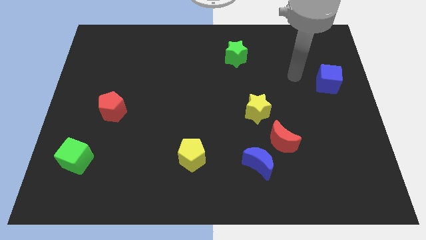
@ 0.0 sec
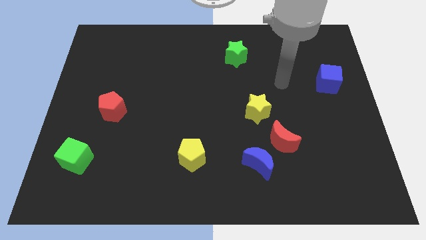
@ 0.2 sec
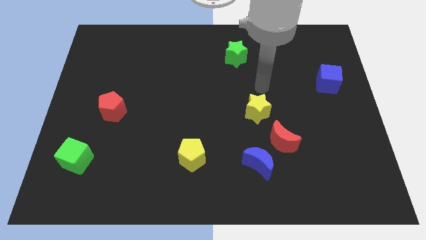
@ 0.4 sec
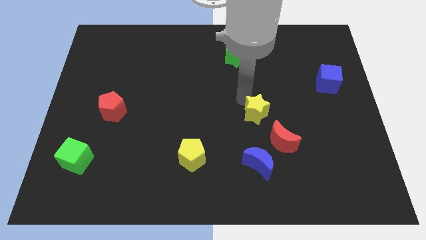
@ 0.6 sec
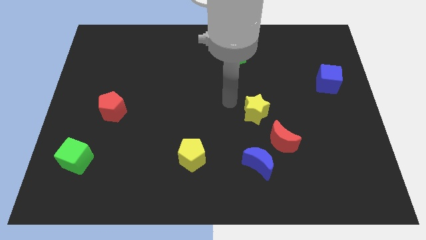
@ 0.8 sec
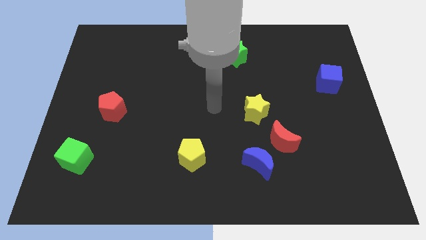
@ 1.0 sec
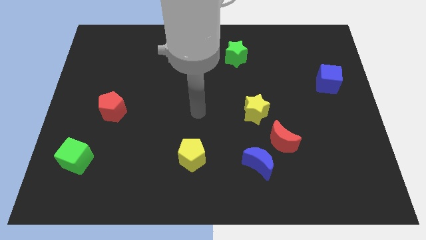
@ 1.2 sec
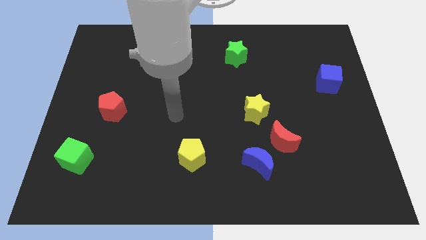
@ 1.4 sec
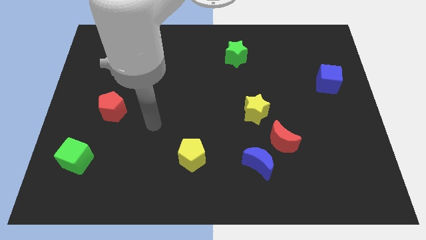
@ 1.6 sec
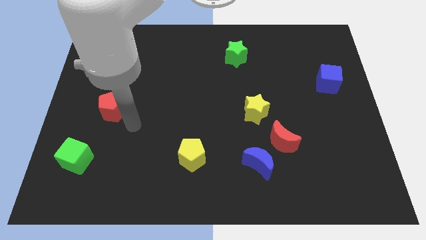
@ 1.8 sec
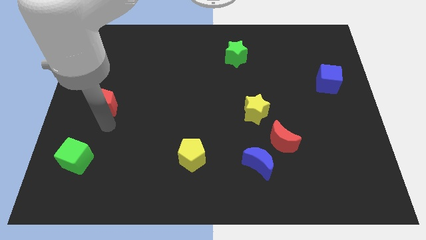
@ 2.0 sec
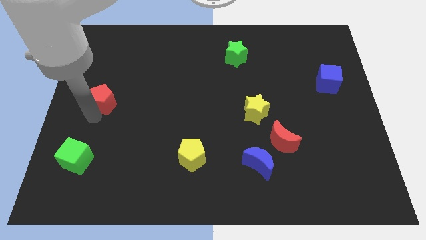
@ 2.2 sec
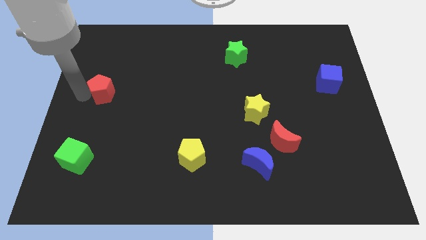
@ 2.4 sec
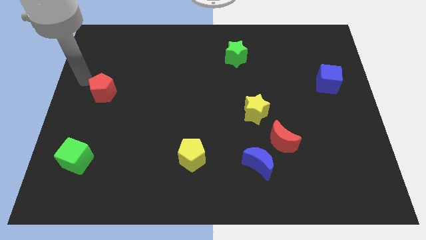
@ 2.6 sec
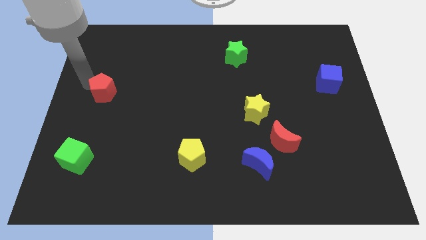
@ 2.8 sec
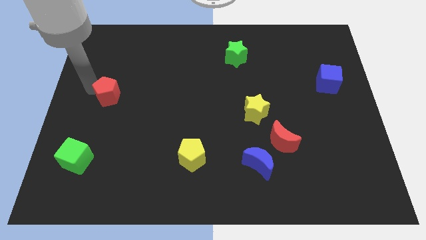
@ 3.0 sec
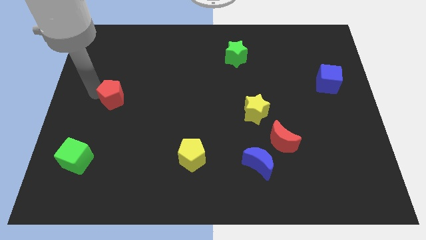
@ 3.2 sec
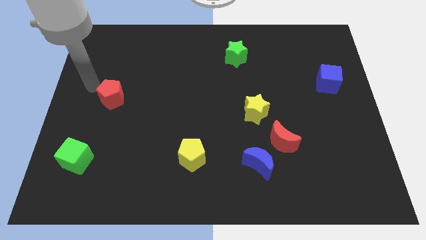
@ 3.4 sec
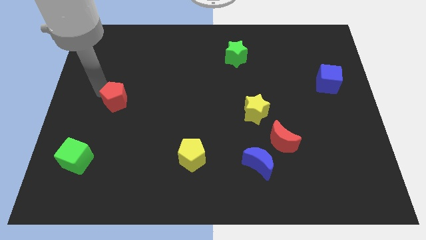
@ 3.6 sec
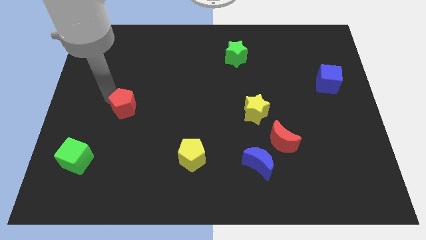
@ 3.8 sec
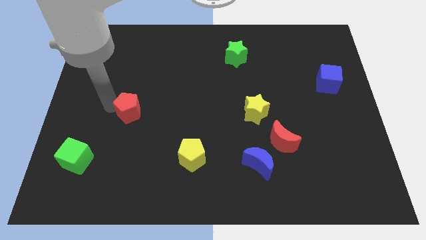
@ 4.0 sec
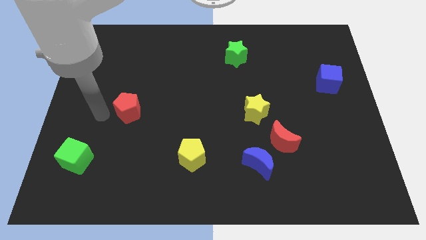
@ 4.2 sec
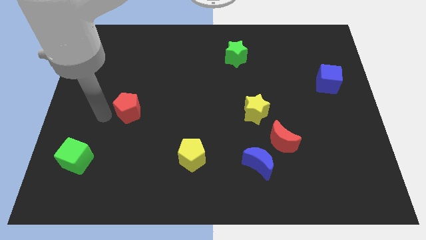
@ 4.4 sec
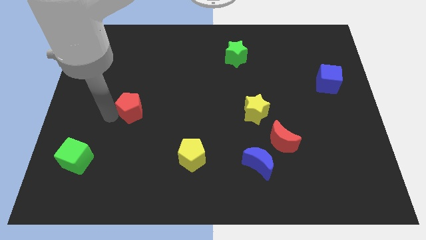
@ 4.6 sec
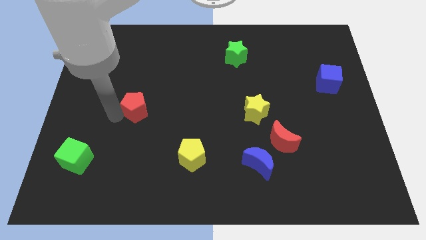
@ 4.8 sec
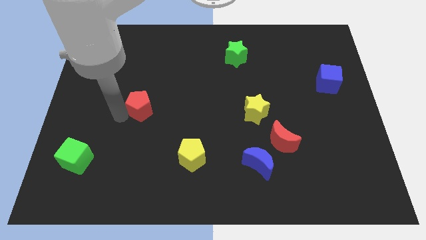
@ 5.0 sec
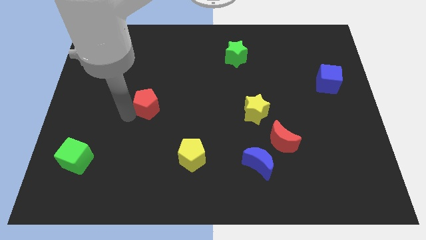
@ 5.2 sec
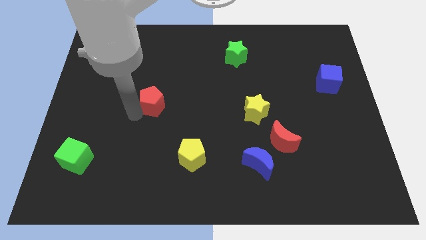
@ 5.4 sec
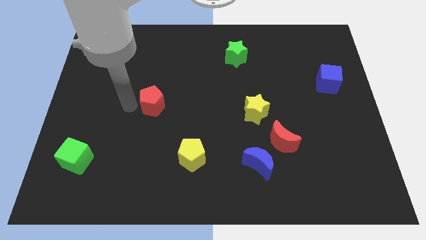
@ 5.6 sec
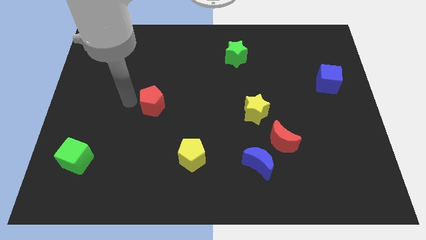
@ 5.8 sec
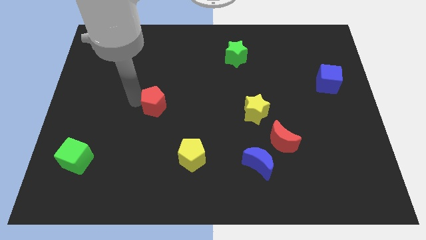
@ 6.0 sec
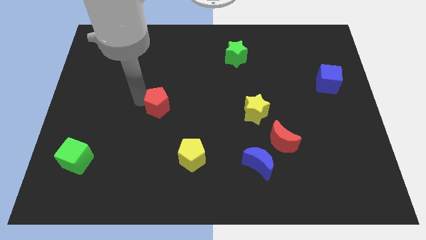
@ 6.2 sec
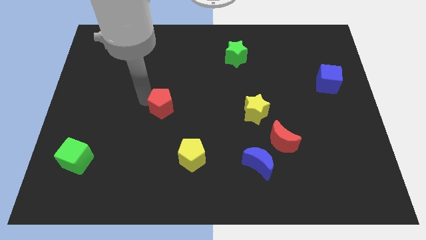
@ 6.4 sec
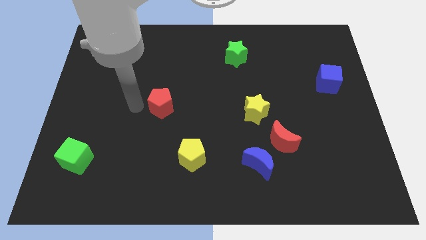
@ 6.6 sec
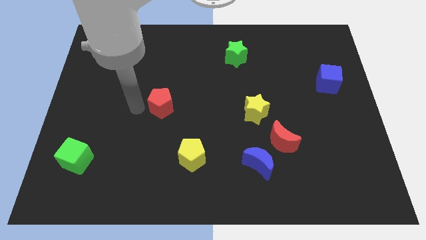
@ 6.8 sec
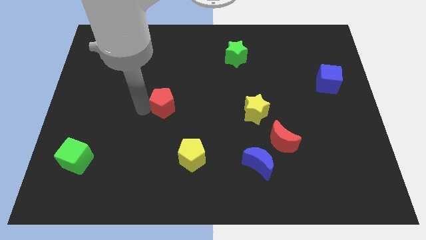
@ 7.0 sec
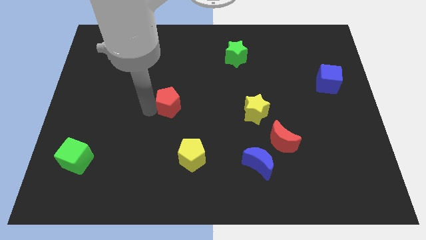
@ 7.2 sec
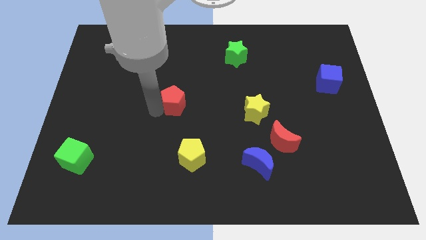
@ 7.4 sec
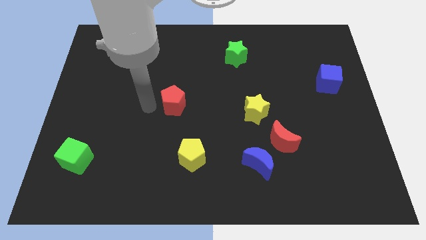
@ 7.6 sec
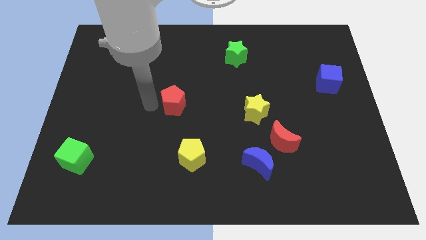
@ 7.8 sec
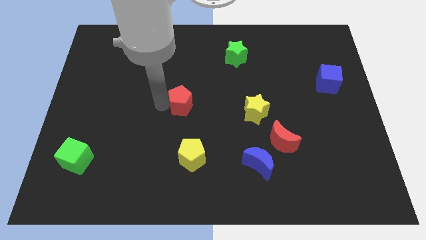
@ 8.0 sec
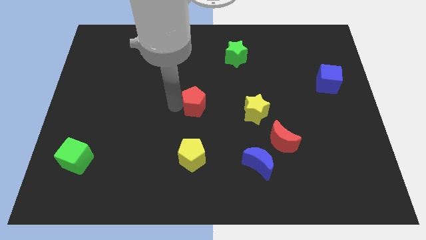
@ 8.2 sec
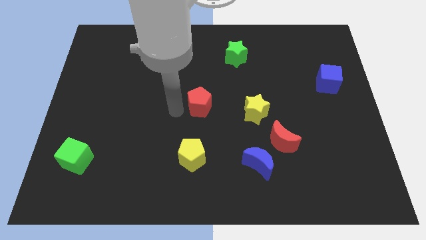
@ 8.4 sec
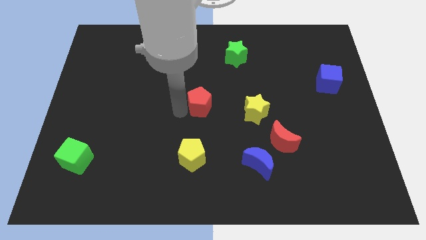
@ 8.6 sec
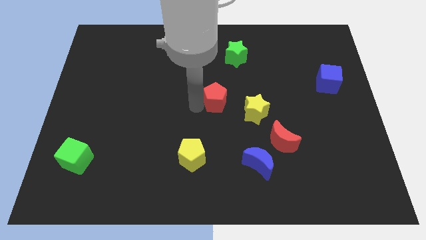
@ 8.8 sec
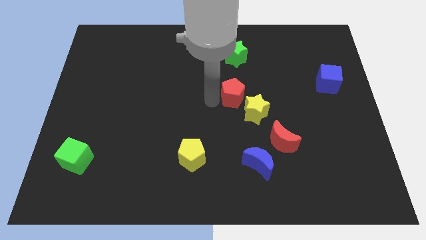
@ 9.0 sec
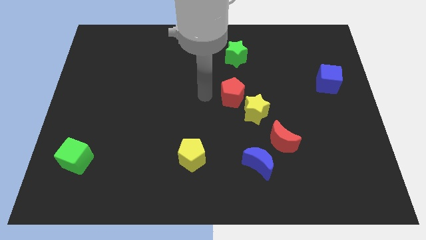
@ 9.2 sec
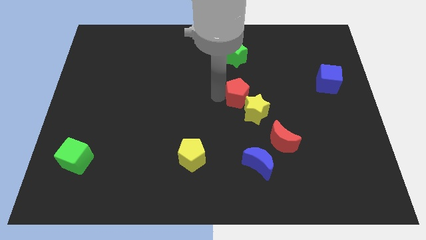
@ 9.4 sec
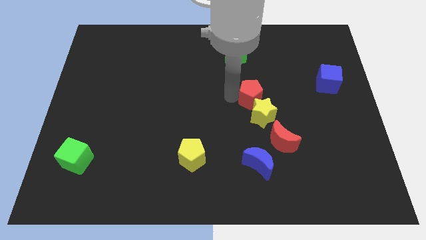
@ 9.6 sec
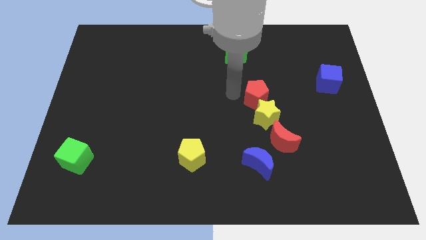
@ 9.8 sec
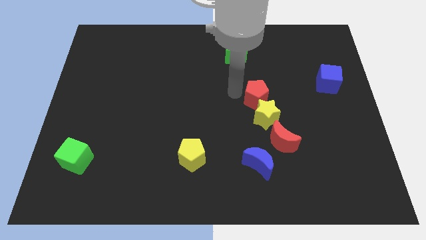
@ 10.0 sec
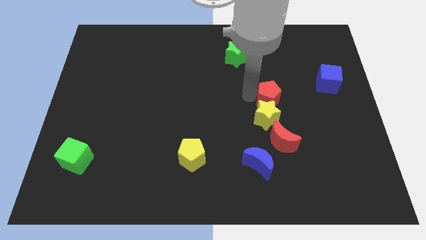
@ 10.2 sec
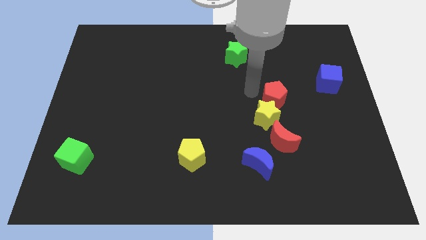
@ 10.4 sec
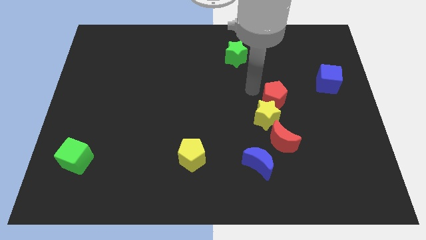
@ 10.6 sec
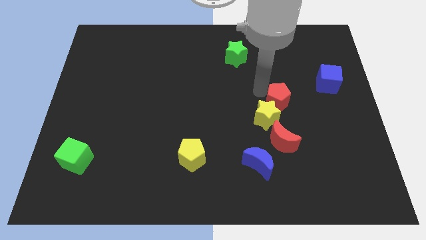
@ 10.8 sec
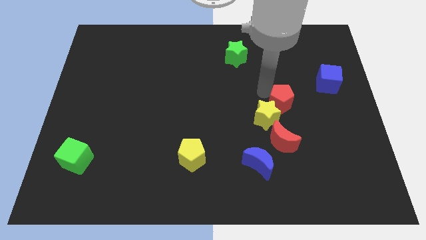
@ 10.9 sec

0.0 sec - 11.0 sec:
push the red pentagon just right of the yellow star

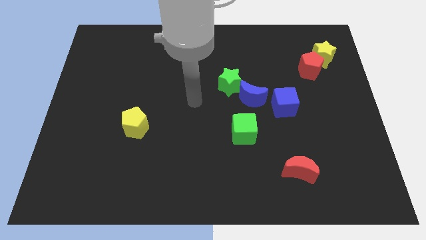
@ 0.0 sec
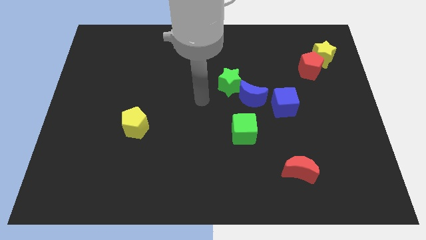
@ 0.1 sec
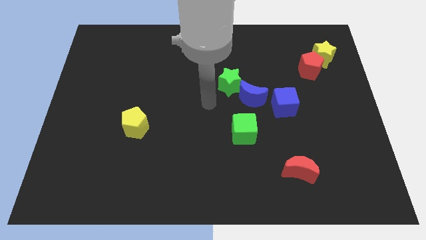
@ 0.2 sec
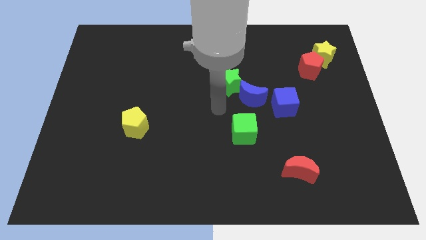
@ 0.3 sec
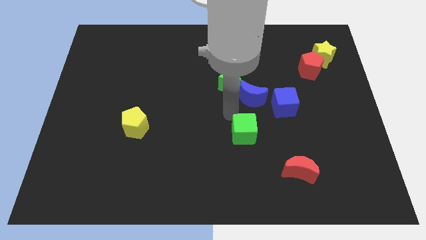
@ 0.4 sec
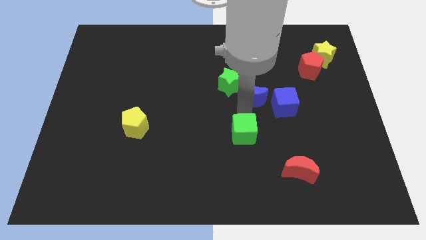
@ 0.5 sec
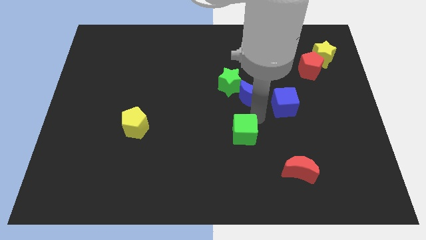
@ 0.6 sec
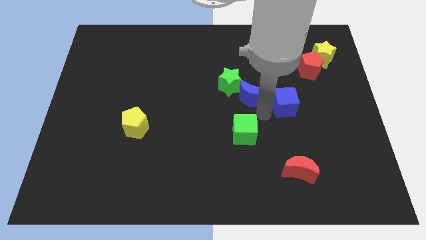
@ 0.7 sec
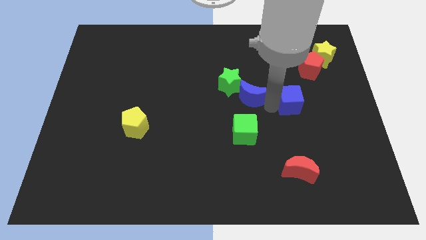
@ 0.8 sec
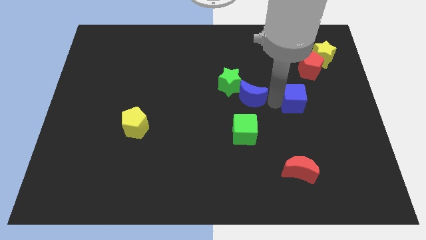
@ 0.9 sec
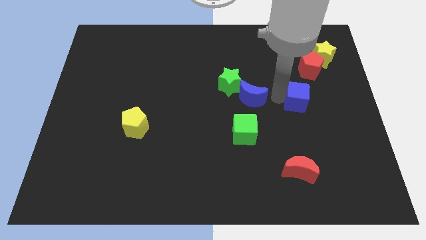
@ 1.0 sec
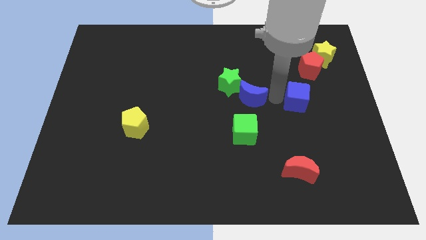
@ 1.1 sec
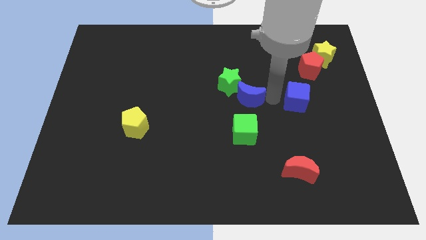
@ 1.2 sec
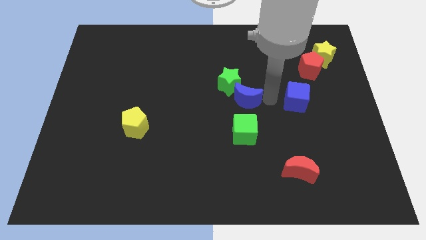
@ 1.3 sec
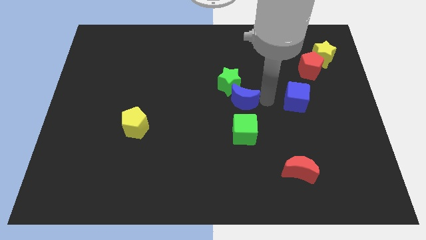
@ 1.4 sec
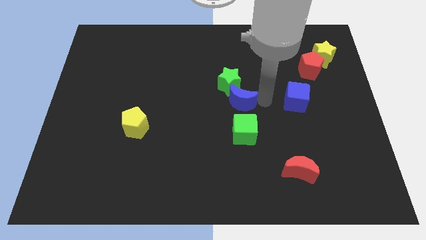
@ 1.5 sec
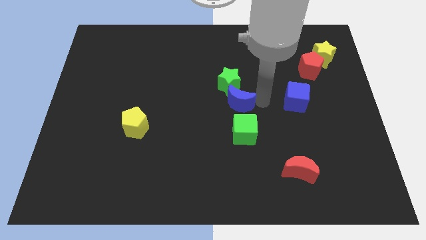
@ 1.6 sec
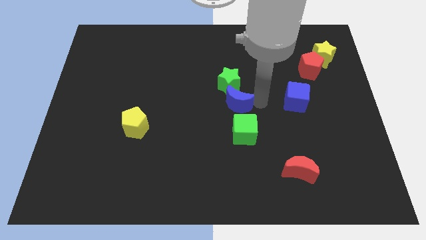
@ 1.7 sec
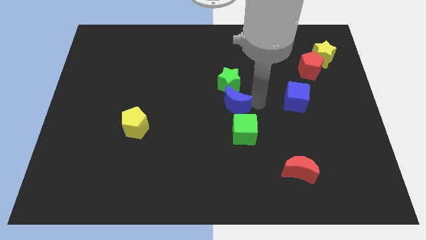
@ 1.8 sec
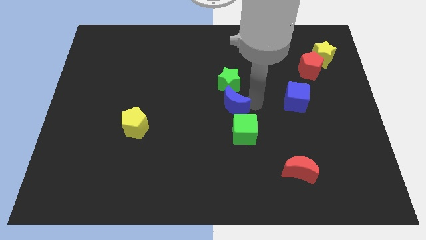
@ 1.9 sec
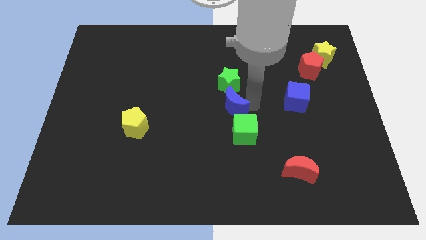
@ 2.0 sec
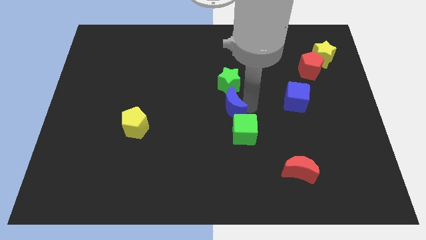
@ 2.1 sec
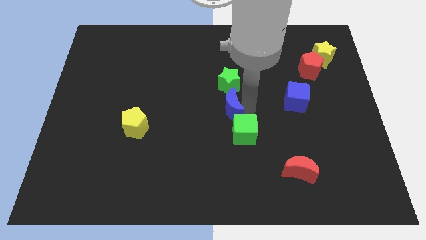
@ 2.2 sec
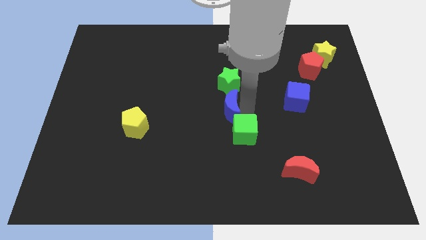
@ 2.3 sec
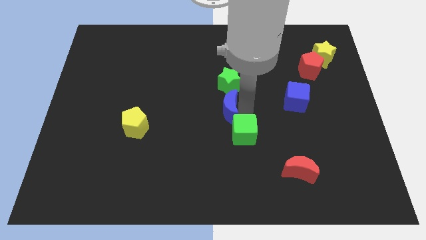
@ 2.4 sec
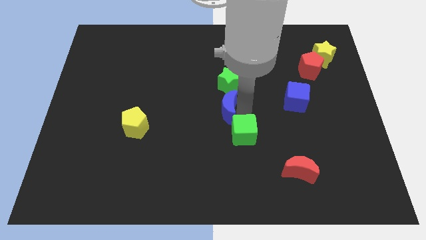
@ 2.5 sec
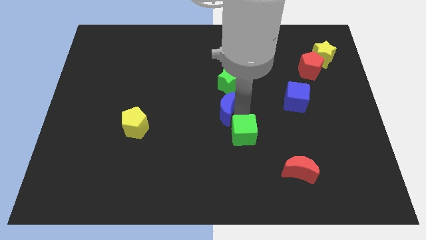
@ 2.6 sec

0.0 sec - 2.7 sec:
push the blue moon diagonally down and to the left of the green star
